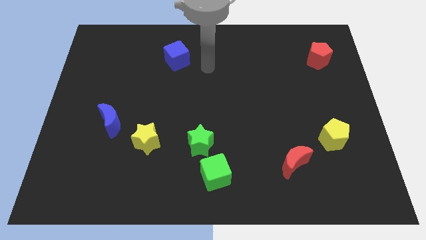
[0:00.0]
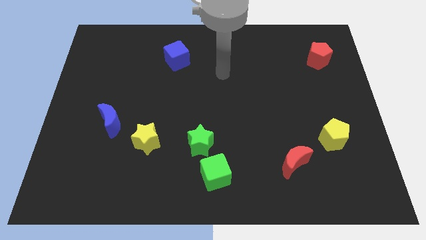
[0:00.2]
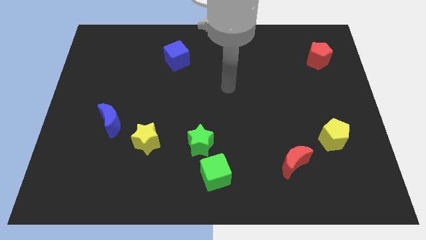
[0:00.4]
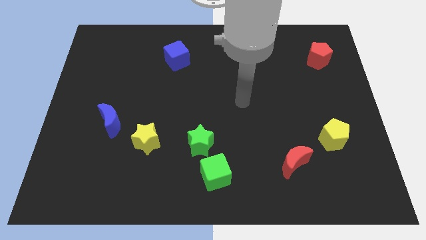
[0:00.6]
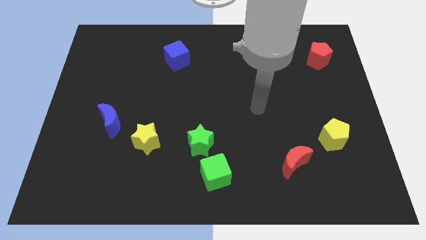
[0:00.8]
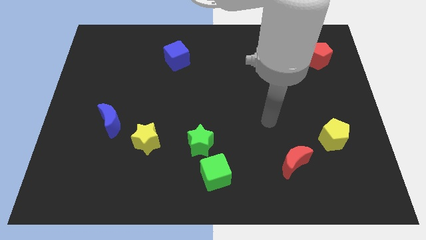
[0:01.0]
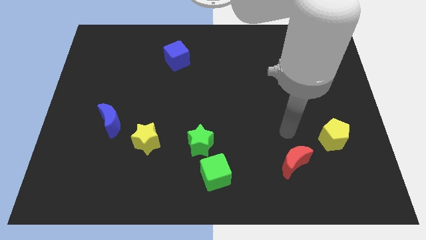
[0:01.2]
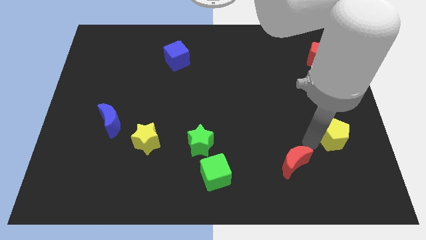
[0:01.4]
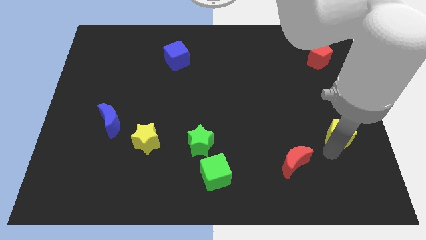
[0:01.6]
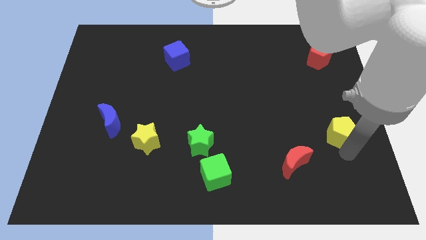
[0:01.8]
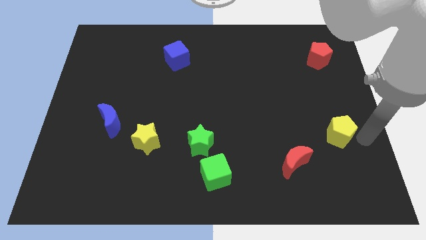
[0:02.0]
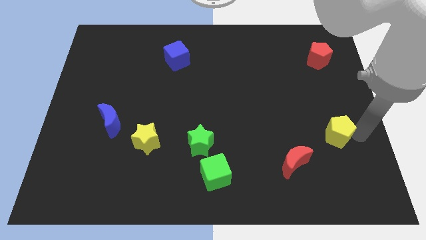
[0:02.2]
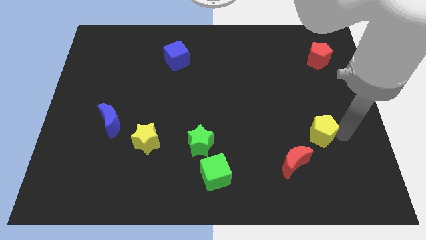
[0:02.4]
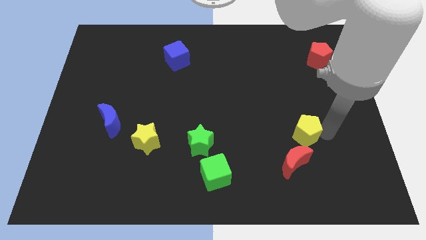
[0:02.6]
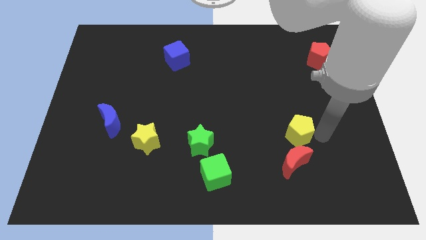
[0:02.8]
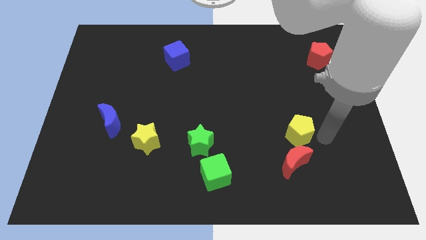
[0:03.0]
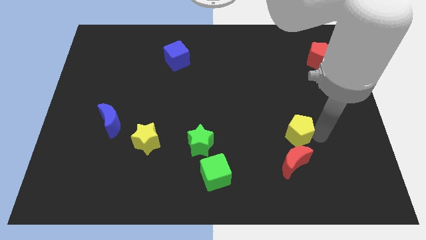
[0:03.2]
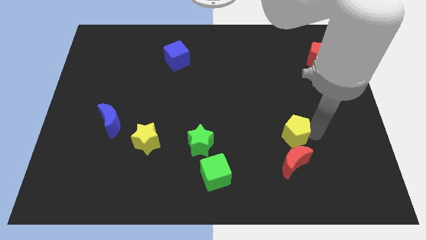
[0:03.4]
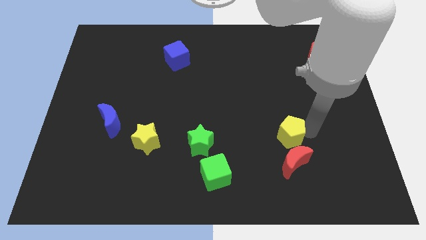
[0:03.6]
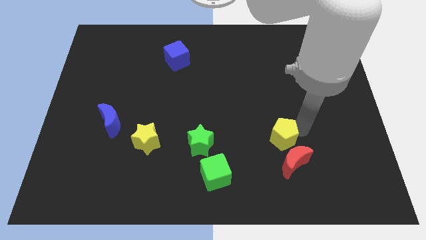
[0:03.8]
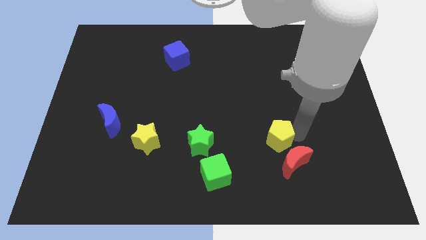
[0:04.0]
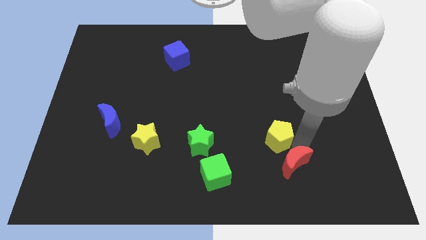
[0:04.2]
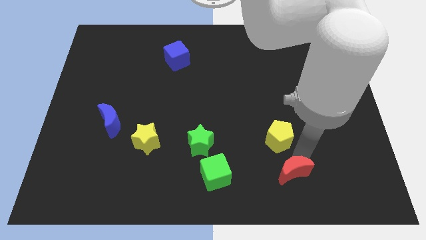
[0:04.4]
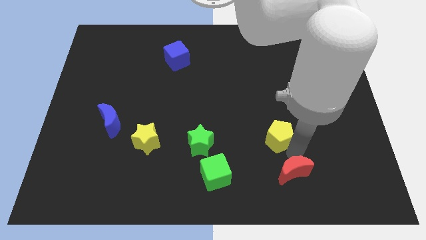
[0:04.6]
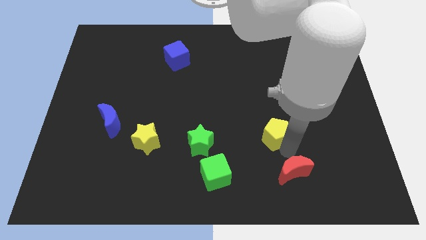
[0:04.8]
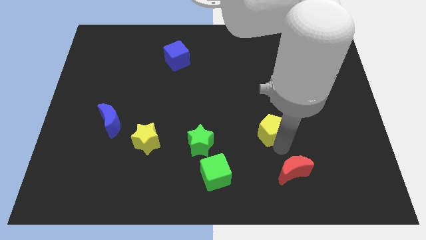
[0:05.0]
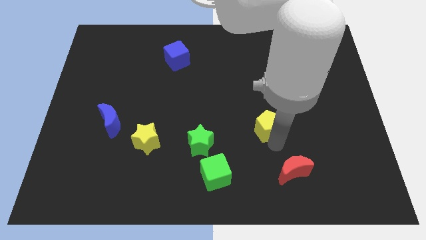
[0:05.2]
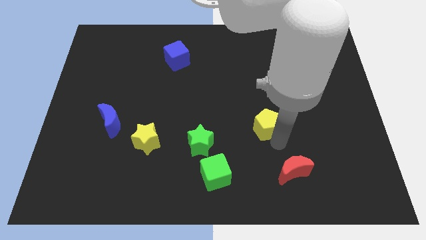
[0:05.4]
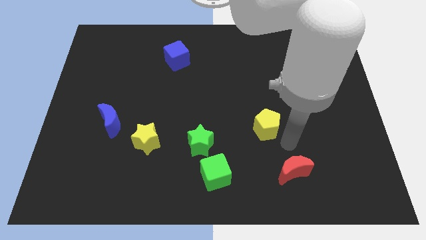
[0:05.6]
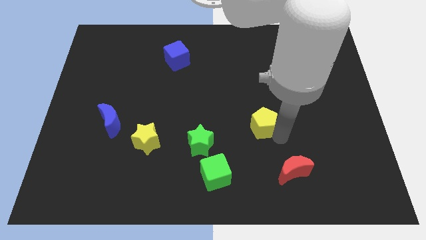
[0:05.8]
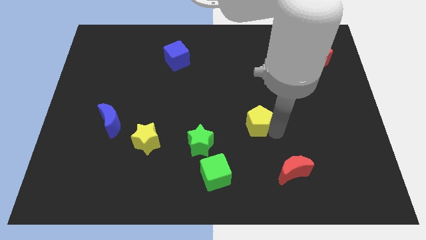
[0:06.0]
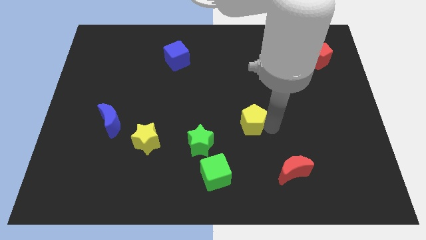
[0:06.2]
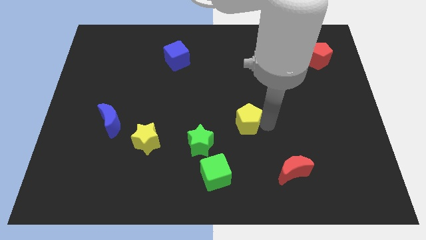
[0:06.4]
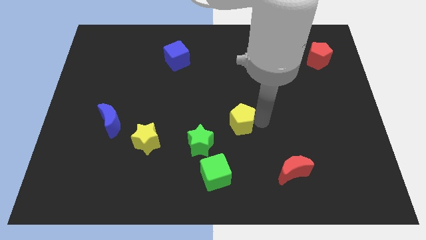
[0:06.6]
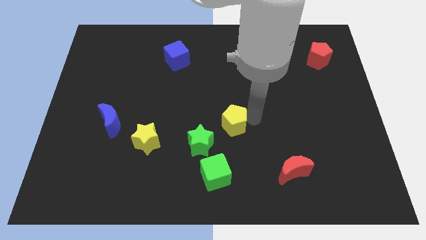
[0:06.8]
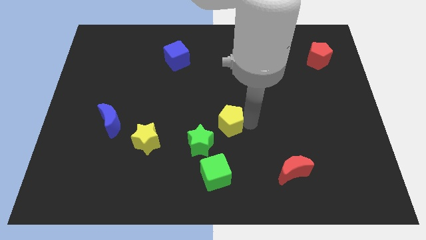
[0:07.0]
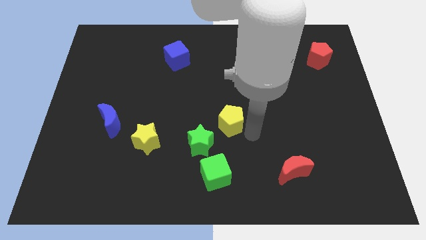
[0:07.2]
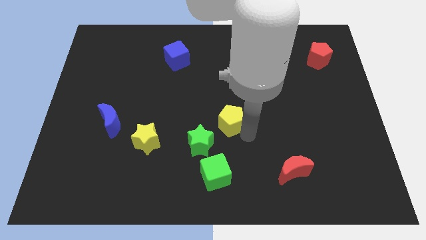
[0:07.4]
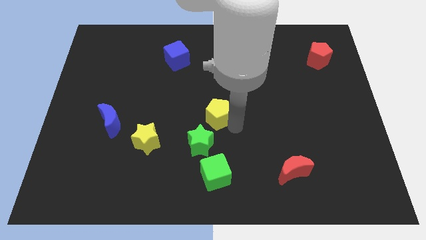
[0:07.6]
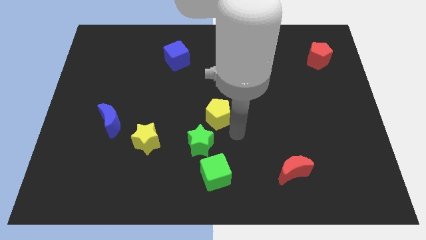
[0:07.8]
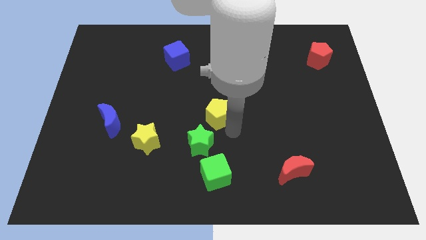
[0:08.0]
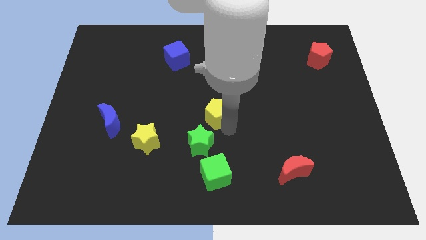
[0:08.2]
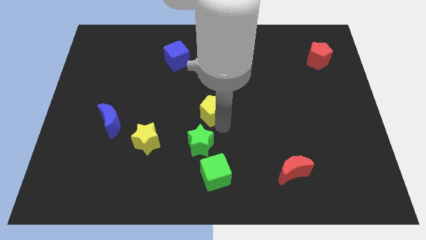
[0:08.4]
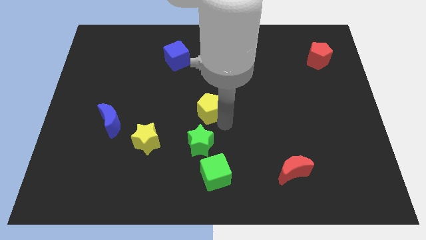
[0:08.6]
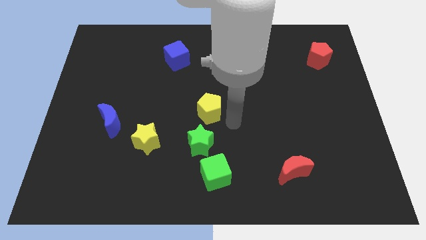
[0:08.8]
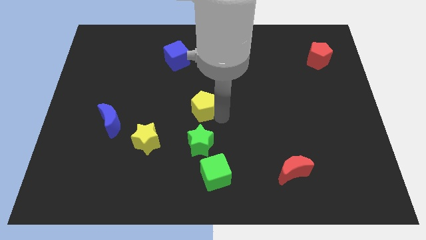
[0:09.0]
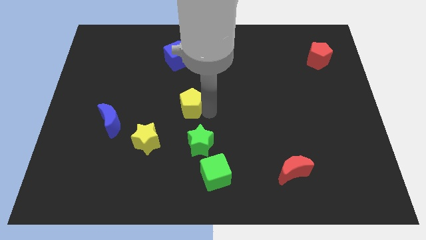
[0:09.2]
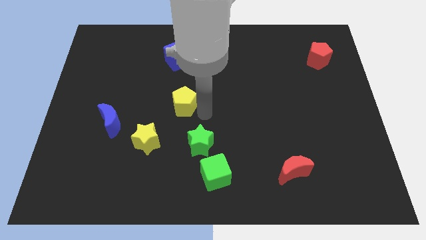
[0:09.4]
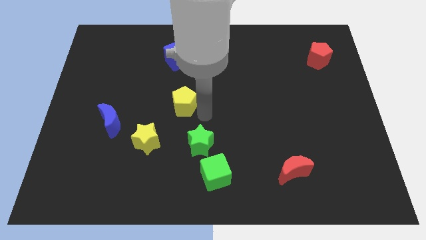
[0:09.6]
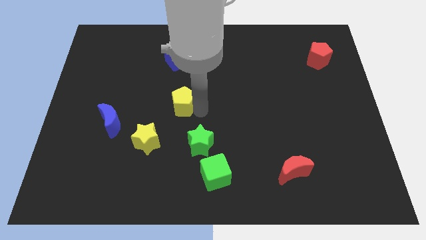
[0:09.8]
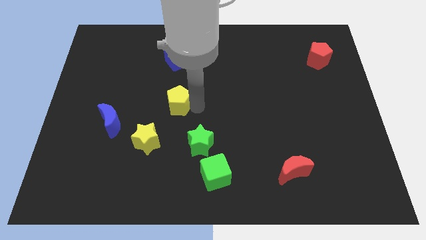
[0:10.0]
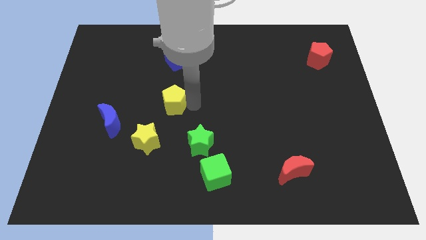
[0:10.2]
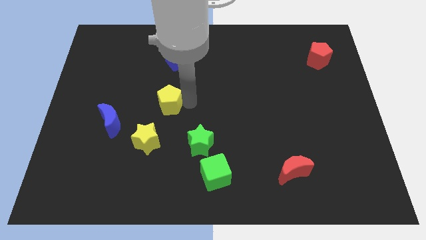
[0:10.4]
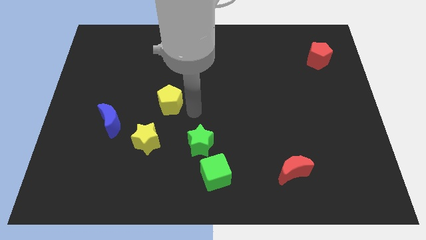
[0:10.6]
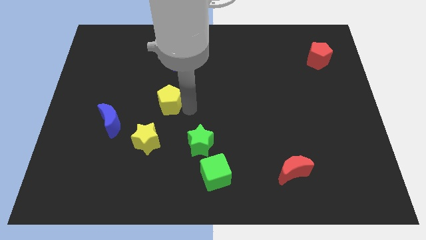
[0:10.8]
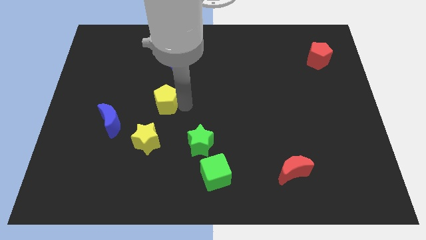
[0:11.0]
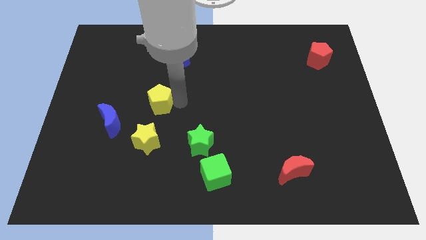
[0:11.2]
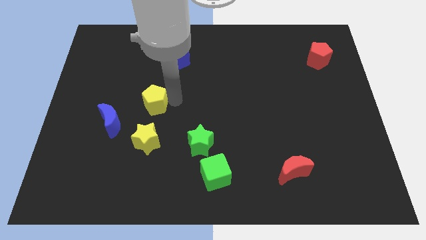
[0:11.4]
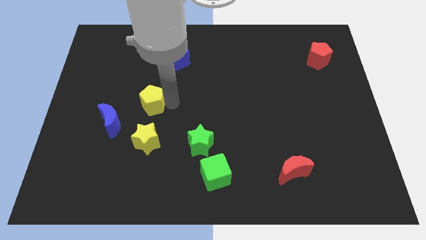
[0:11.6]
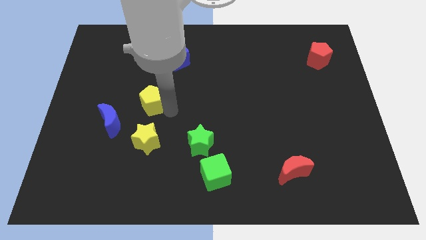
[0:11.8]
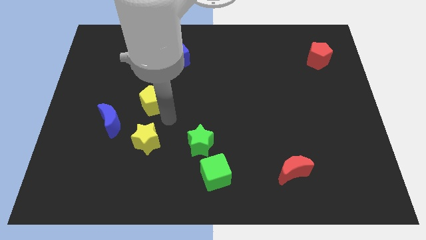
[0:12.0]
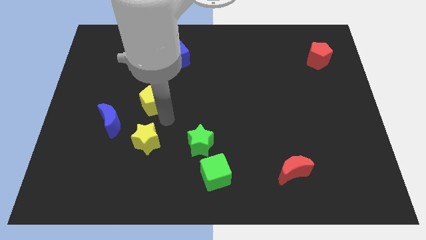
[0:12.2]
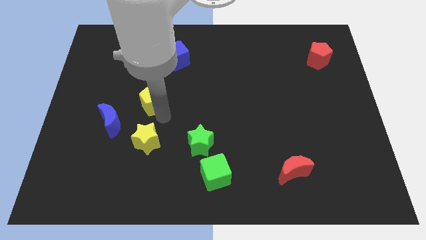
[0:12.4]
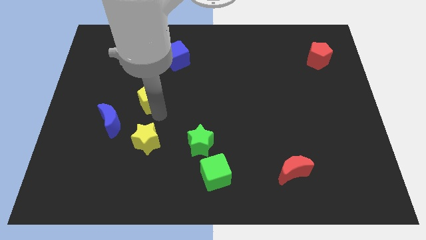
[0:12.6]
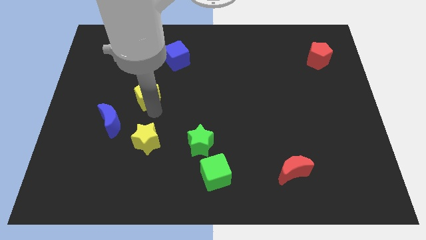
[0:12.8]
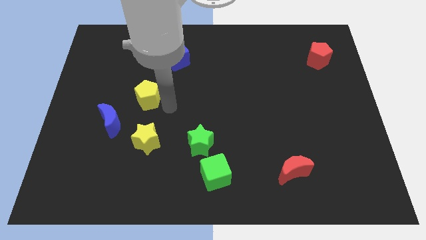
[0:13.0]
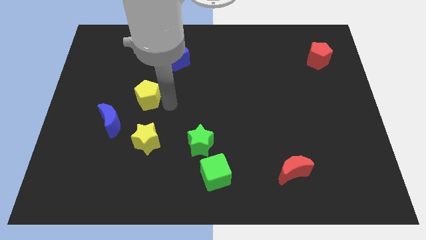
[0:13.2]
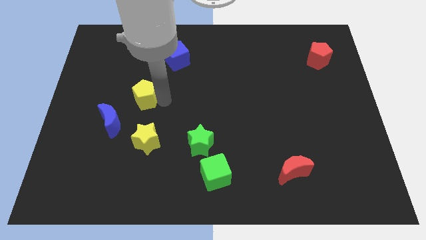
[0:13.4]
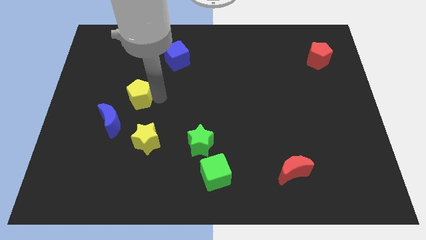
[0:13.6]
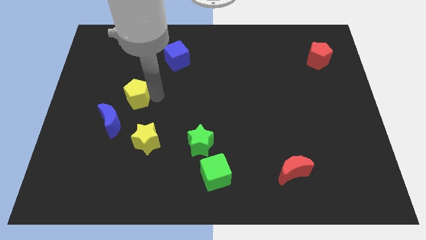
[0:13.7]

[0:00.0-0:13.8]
slide the yellow pentagon to the top side of the blue moon
